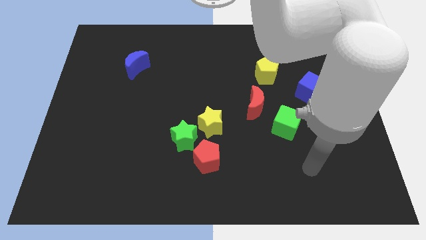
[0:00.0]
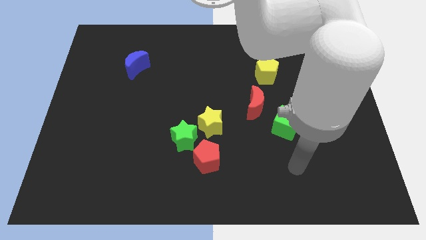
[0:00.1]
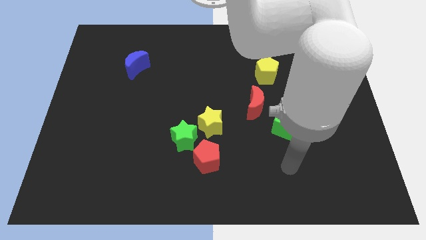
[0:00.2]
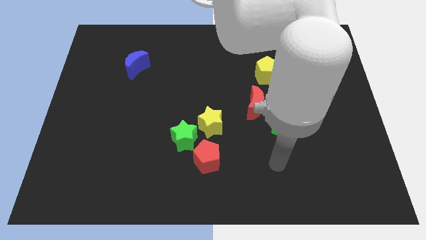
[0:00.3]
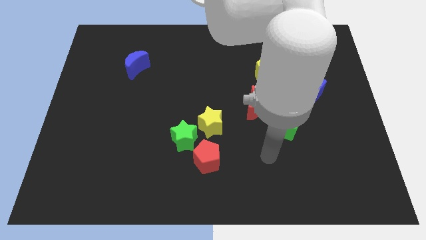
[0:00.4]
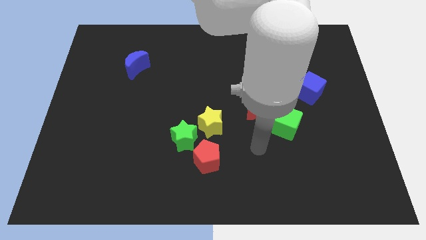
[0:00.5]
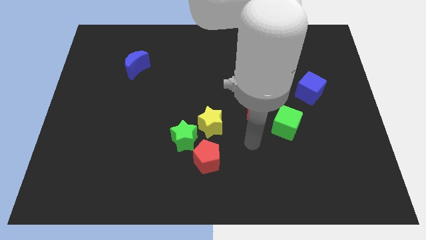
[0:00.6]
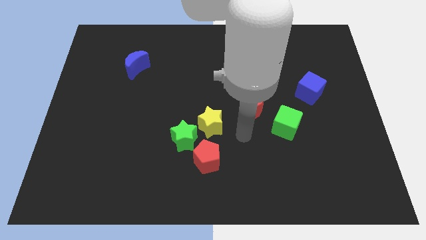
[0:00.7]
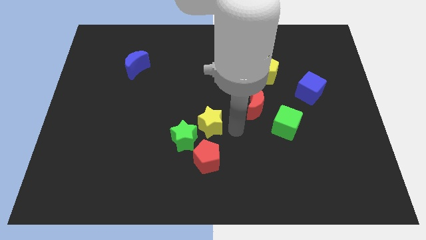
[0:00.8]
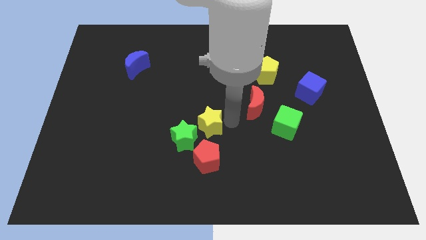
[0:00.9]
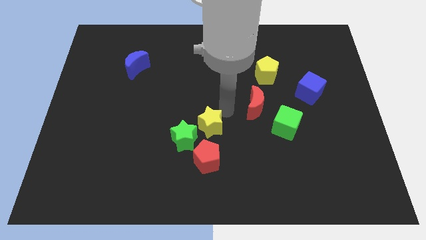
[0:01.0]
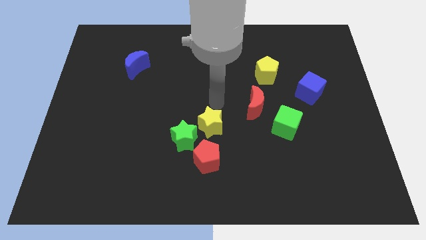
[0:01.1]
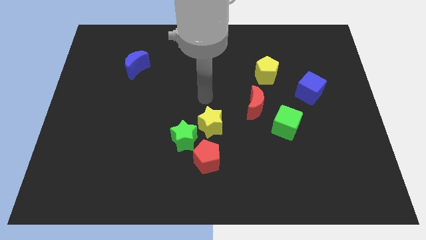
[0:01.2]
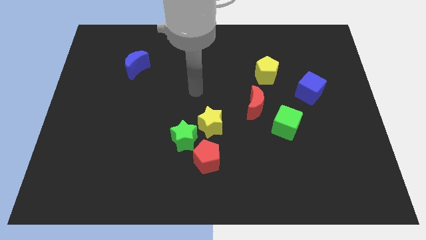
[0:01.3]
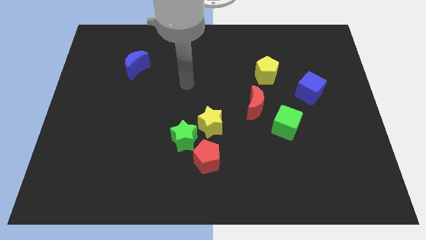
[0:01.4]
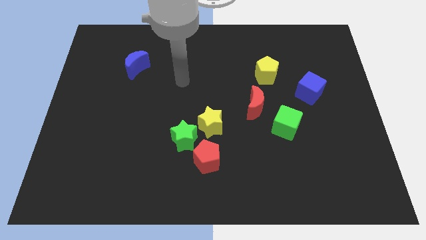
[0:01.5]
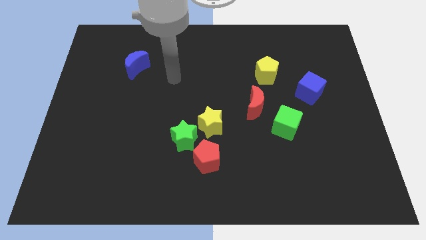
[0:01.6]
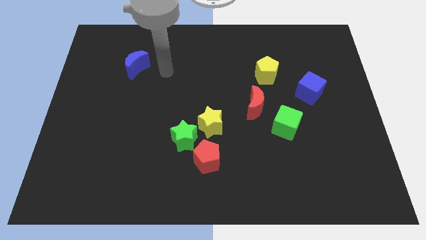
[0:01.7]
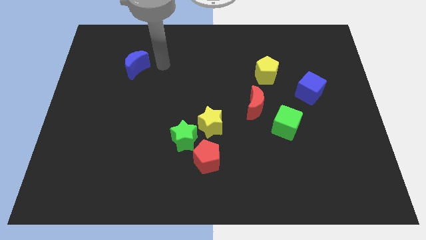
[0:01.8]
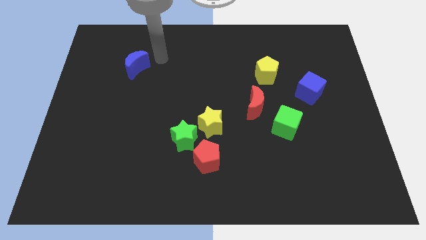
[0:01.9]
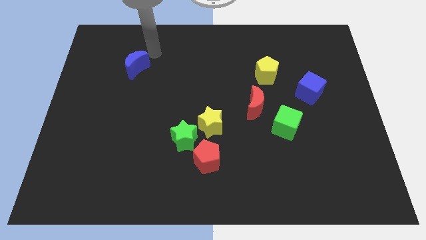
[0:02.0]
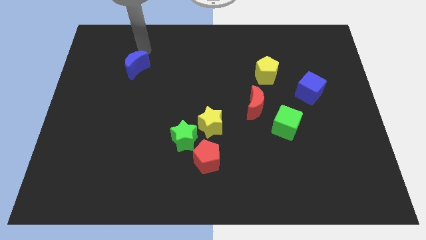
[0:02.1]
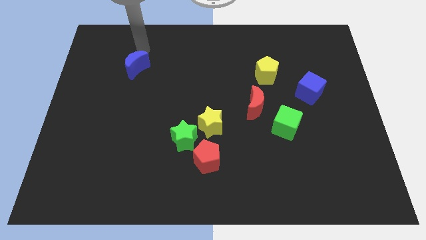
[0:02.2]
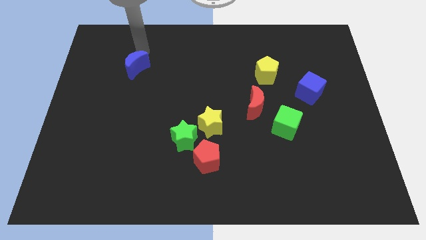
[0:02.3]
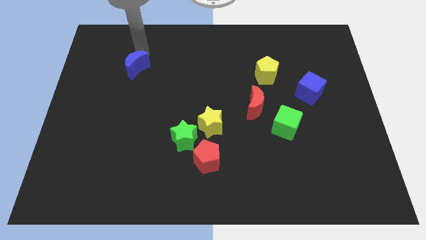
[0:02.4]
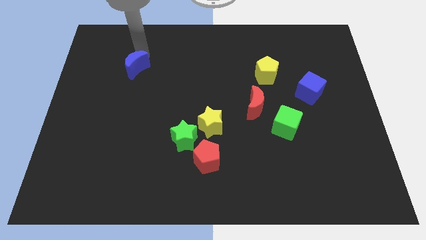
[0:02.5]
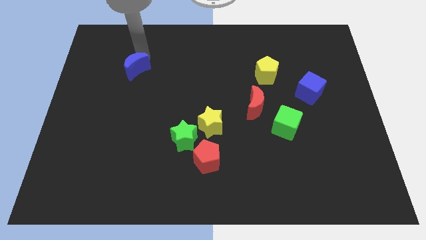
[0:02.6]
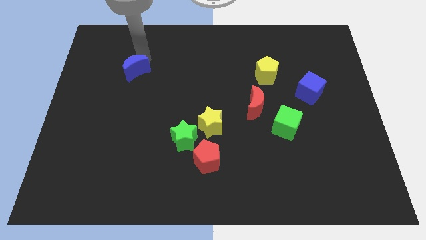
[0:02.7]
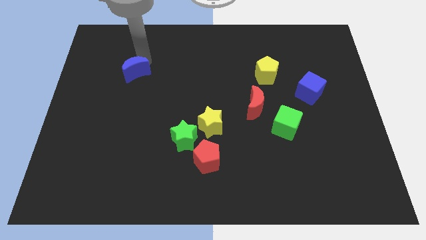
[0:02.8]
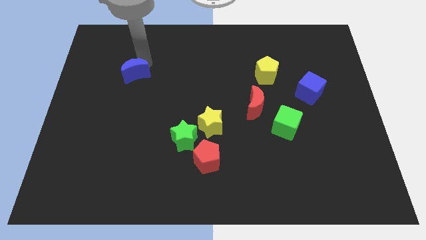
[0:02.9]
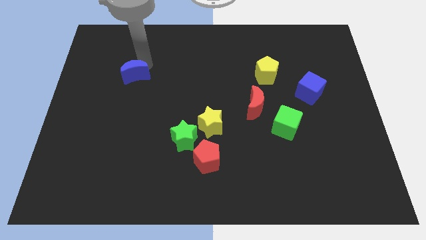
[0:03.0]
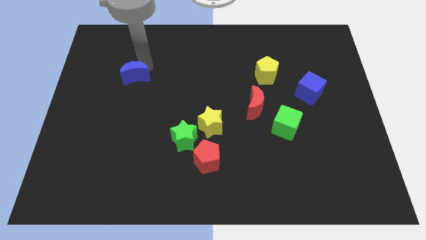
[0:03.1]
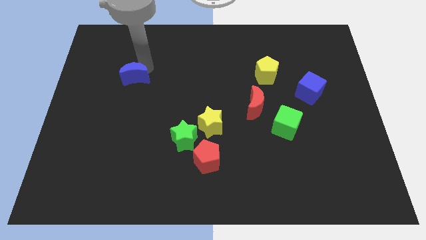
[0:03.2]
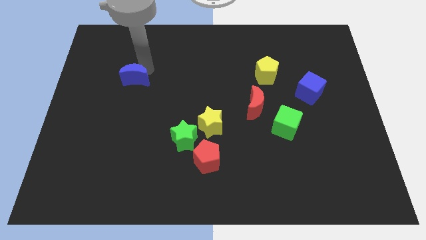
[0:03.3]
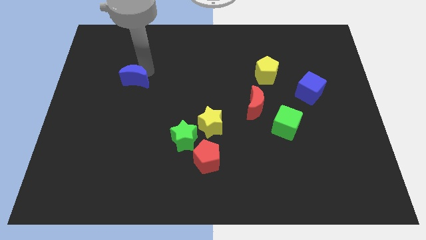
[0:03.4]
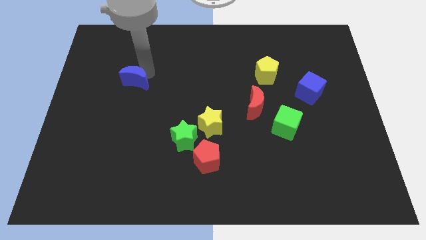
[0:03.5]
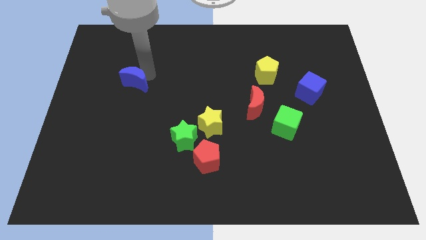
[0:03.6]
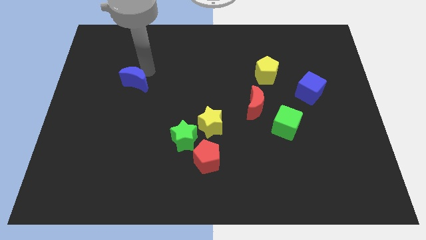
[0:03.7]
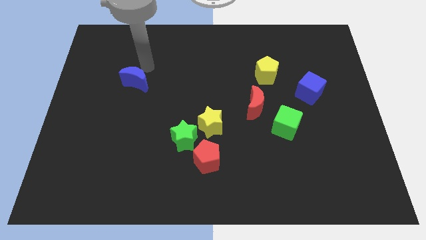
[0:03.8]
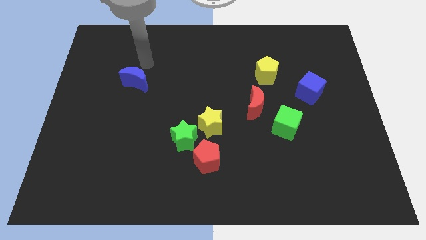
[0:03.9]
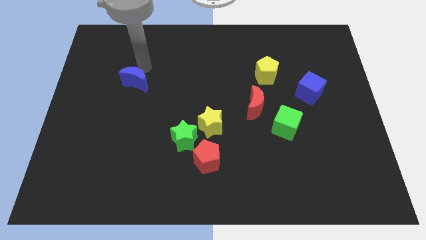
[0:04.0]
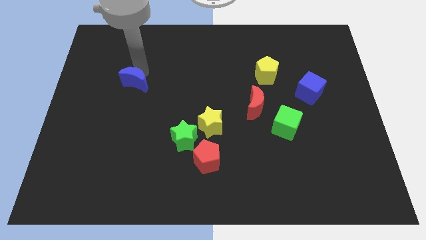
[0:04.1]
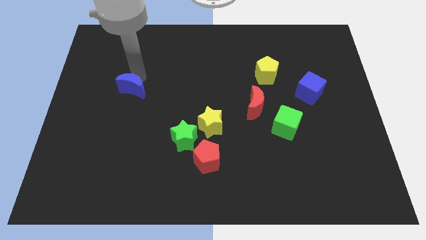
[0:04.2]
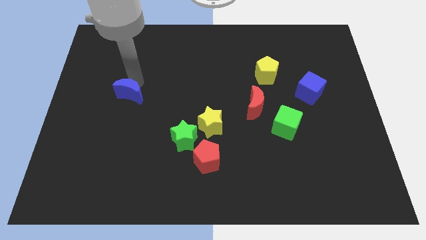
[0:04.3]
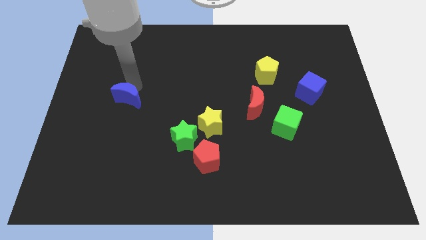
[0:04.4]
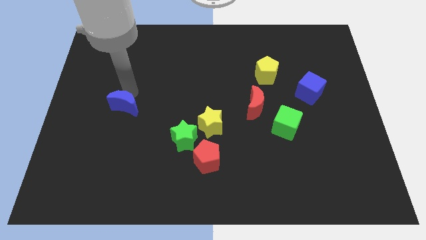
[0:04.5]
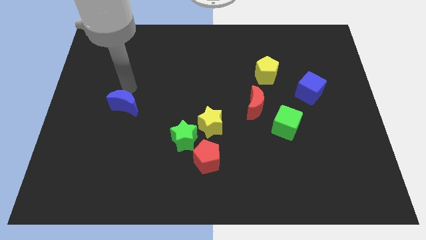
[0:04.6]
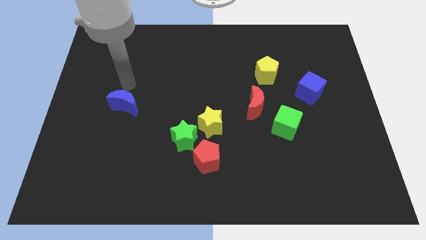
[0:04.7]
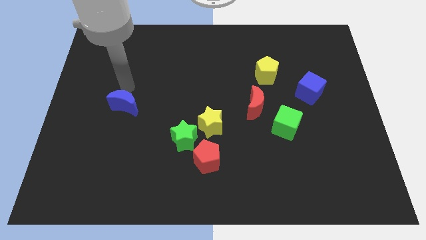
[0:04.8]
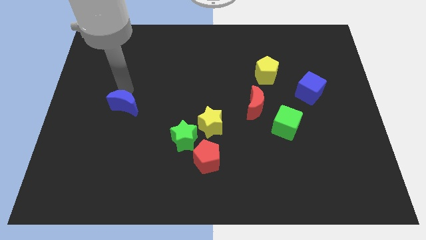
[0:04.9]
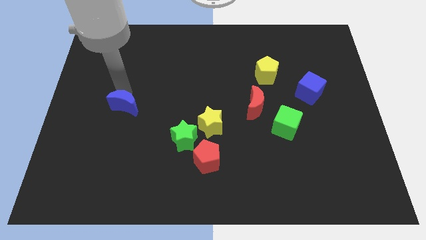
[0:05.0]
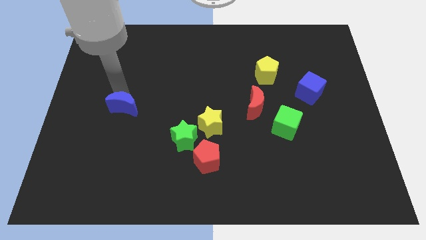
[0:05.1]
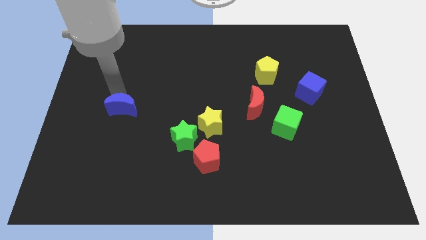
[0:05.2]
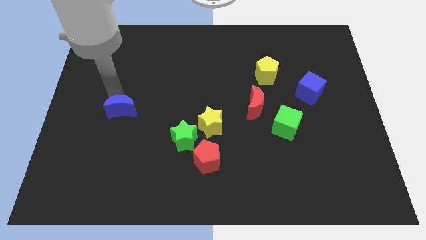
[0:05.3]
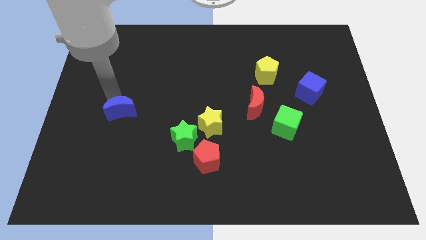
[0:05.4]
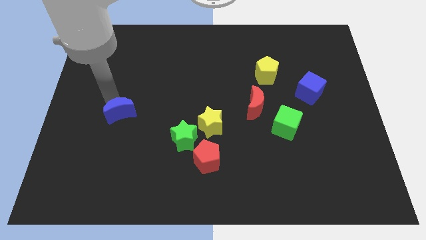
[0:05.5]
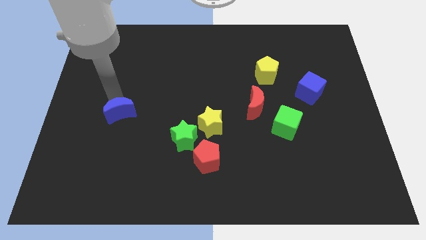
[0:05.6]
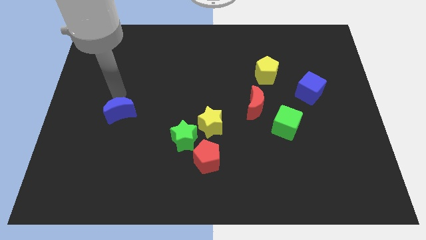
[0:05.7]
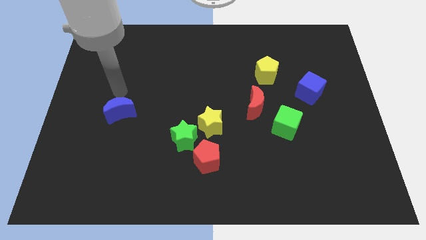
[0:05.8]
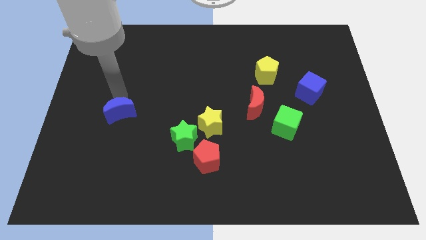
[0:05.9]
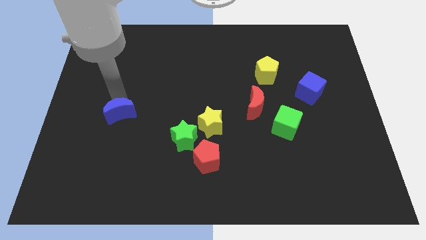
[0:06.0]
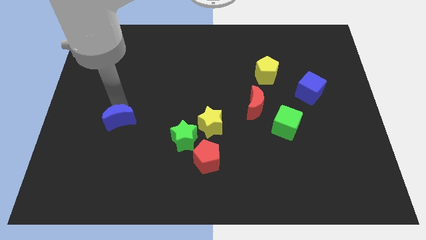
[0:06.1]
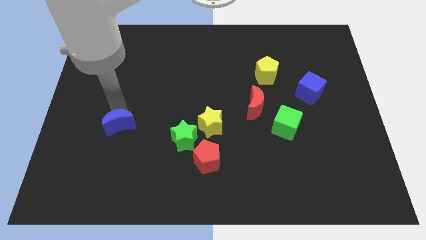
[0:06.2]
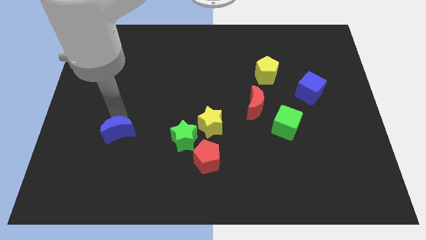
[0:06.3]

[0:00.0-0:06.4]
slide the blue moon downwards

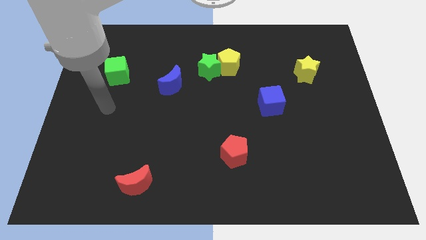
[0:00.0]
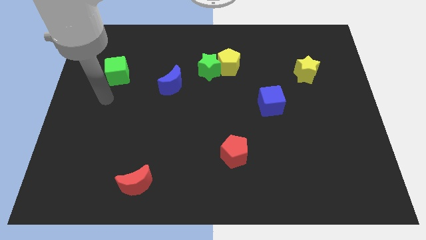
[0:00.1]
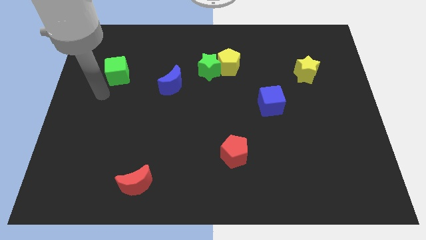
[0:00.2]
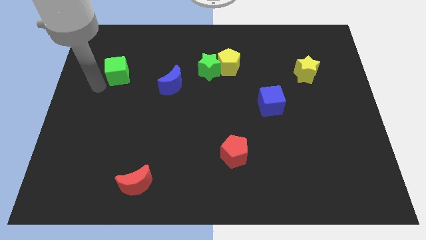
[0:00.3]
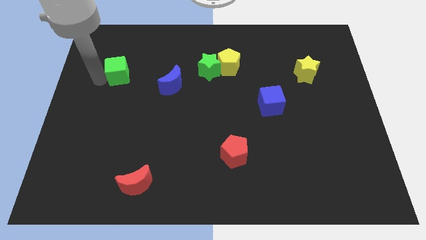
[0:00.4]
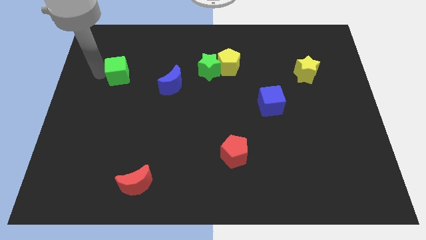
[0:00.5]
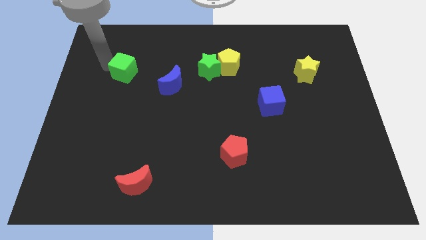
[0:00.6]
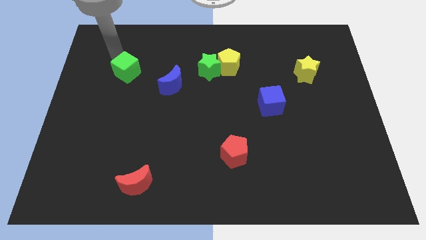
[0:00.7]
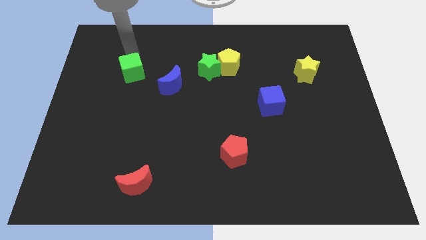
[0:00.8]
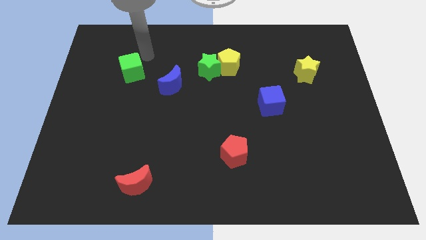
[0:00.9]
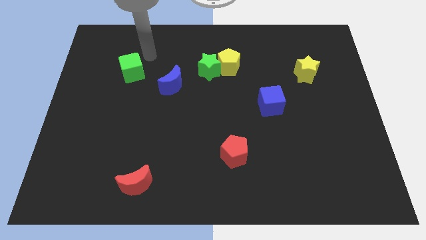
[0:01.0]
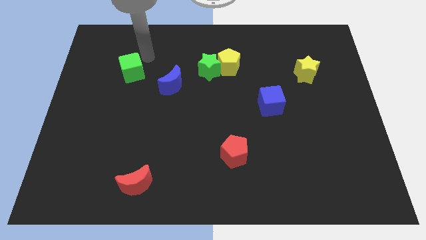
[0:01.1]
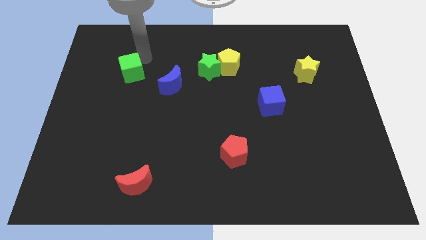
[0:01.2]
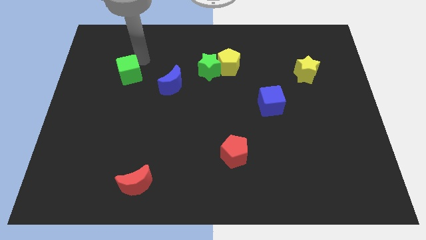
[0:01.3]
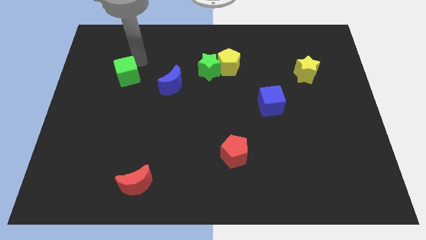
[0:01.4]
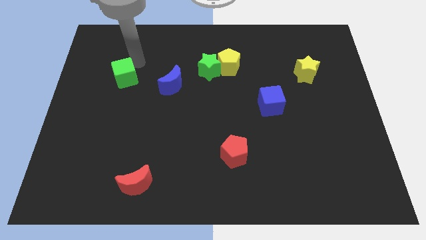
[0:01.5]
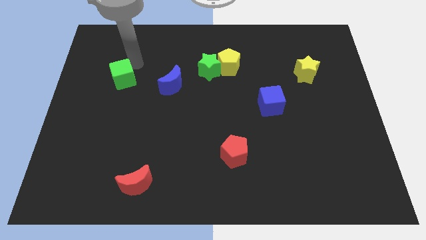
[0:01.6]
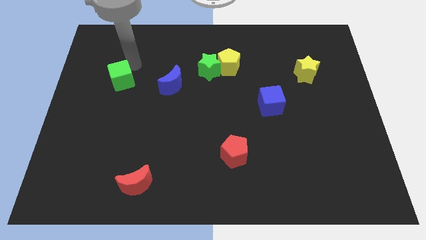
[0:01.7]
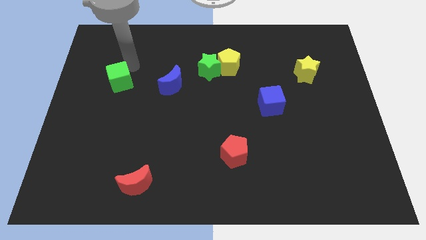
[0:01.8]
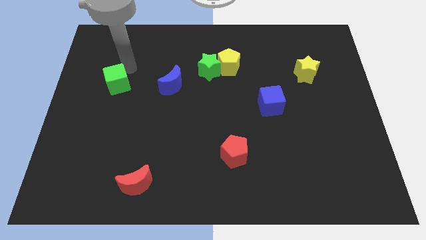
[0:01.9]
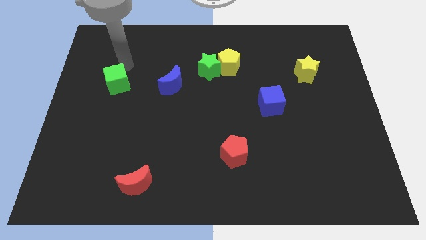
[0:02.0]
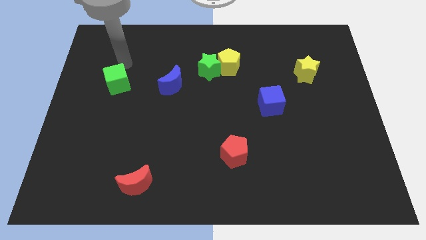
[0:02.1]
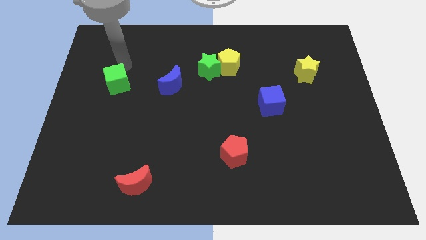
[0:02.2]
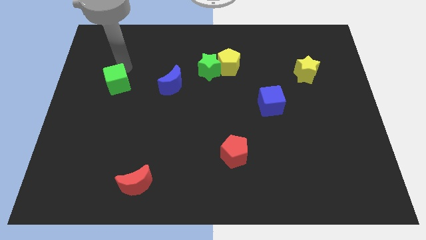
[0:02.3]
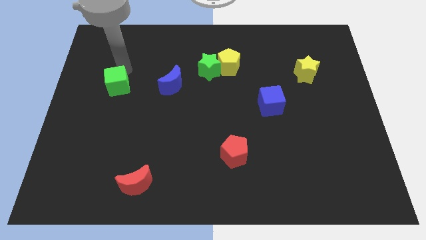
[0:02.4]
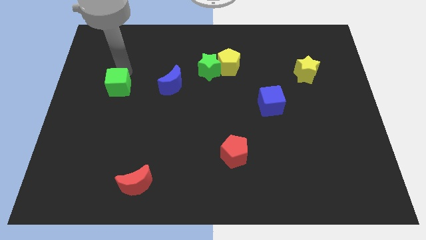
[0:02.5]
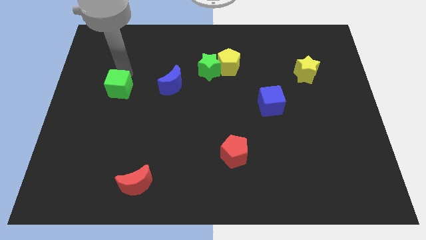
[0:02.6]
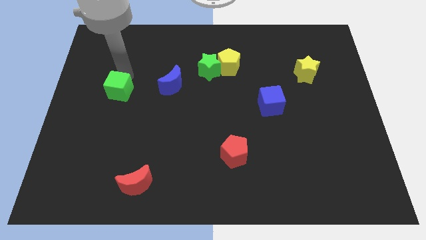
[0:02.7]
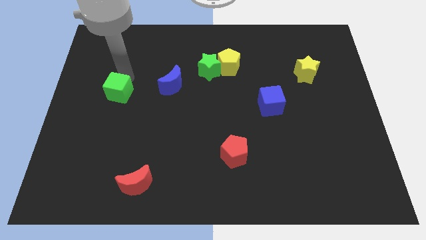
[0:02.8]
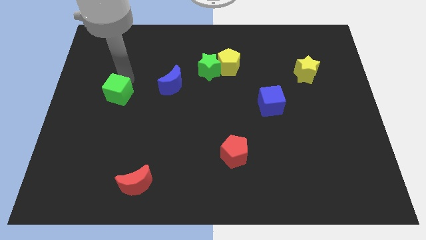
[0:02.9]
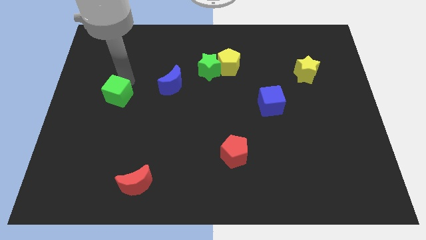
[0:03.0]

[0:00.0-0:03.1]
push the green cube somewhat down
